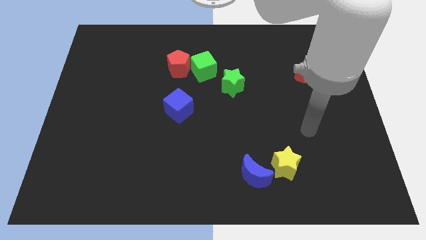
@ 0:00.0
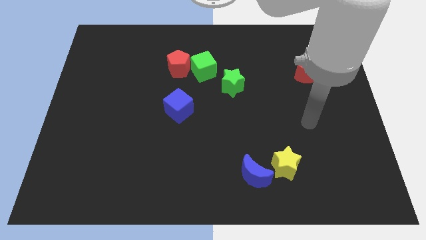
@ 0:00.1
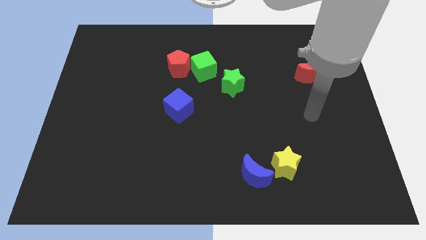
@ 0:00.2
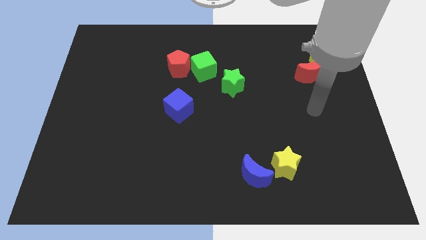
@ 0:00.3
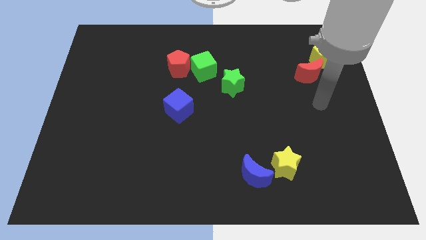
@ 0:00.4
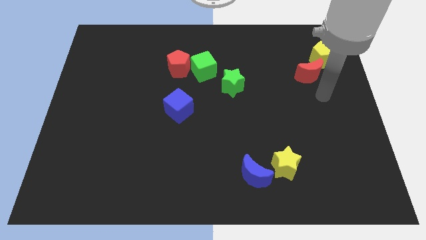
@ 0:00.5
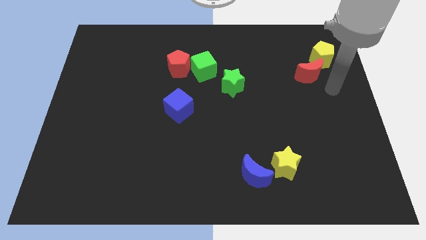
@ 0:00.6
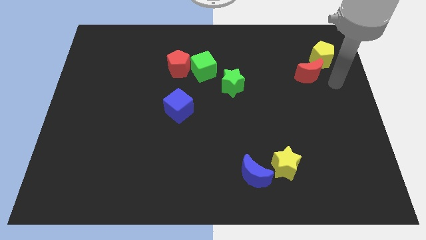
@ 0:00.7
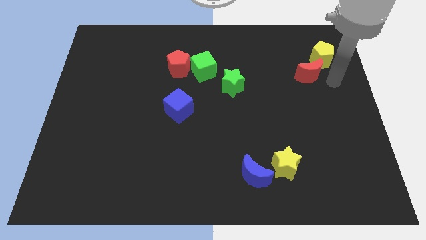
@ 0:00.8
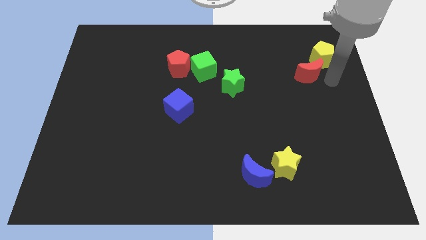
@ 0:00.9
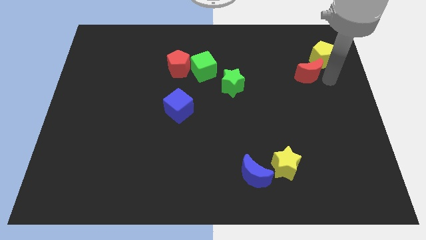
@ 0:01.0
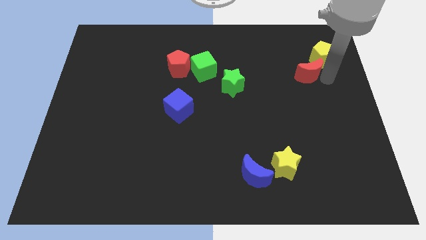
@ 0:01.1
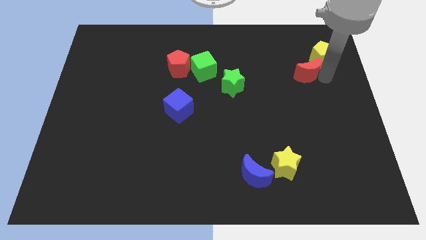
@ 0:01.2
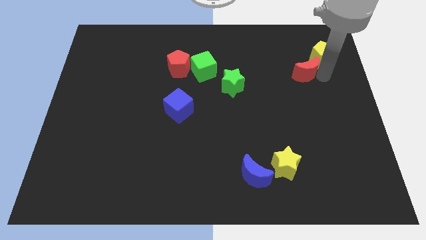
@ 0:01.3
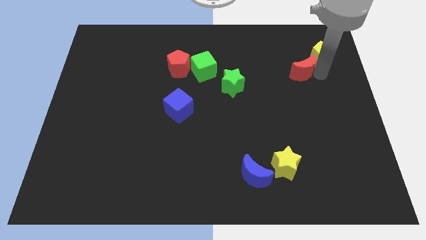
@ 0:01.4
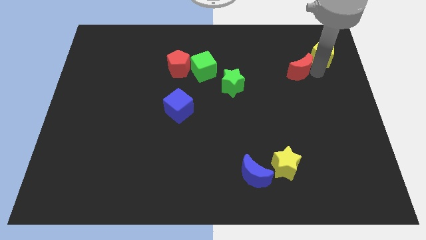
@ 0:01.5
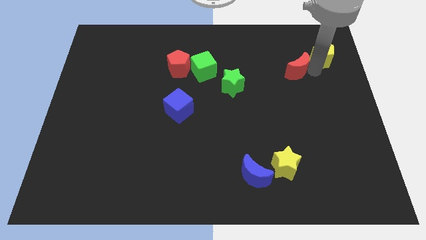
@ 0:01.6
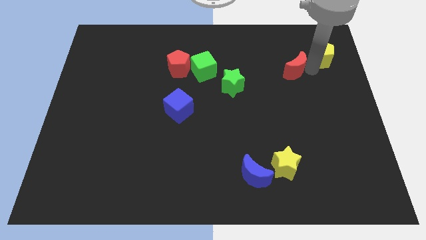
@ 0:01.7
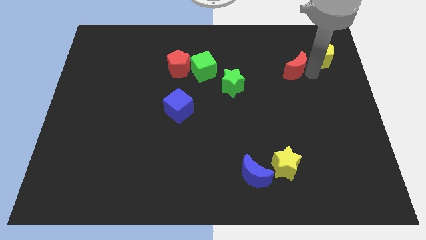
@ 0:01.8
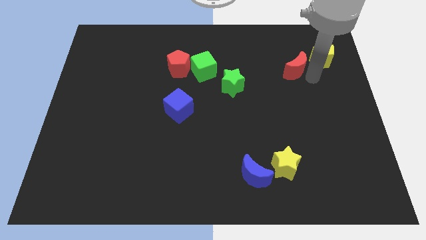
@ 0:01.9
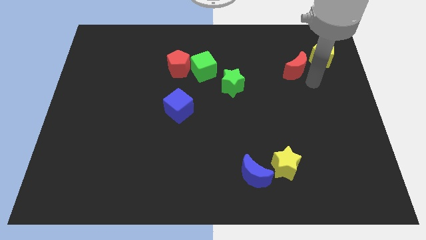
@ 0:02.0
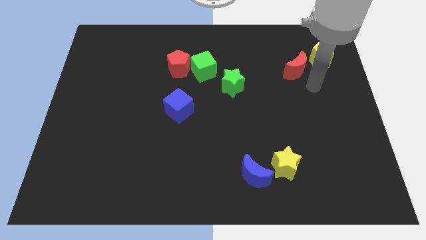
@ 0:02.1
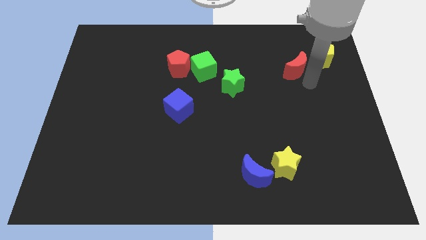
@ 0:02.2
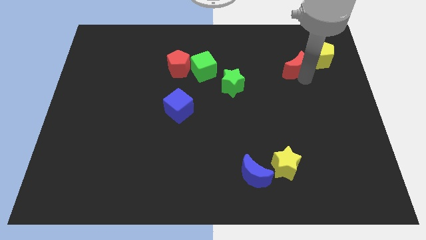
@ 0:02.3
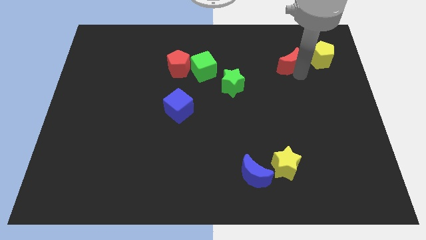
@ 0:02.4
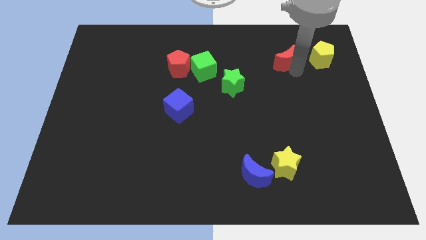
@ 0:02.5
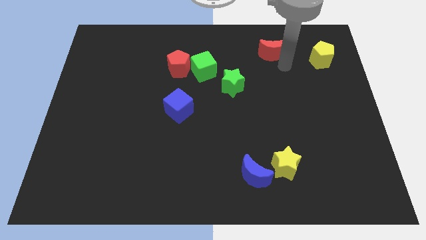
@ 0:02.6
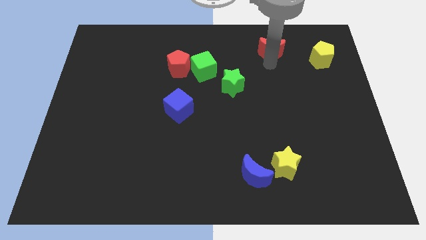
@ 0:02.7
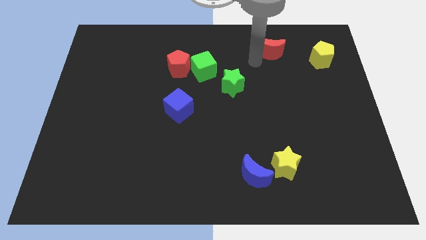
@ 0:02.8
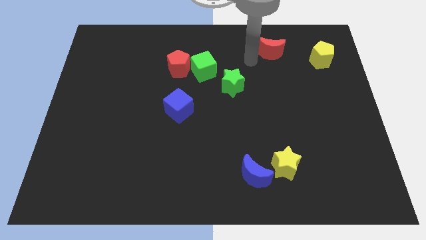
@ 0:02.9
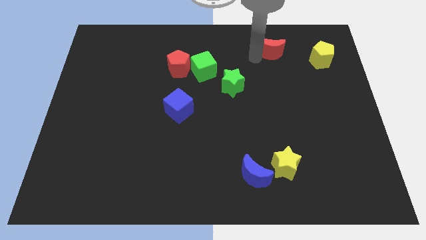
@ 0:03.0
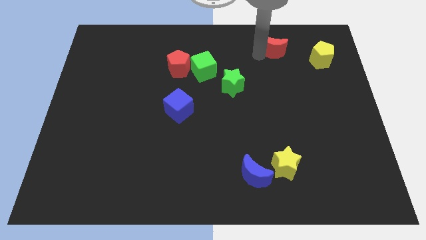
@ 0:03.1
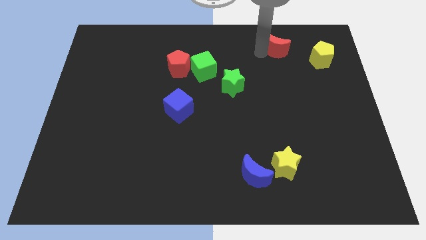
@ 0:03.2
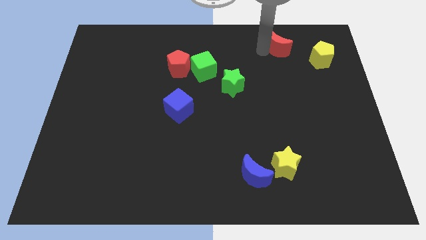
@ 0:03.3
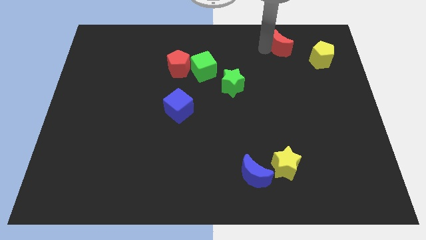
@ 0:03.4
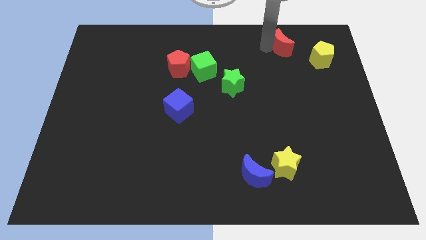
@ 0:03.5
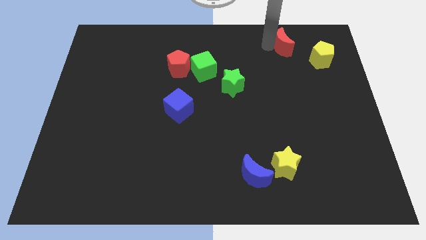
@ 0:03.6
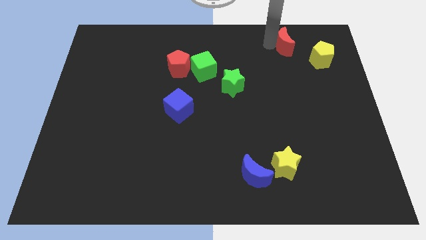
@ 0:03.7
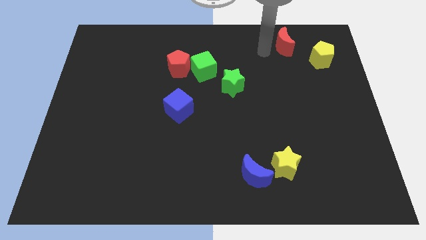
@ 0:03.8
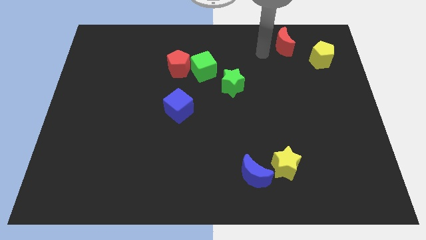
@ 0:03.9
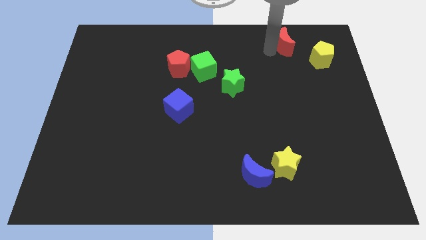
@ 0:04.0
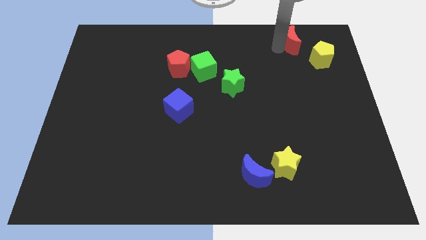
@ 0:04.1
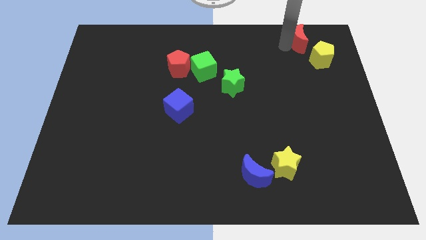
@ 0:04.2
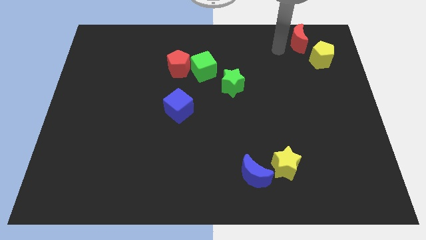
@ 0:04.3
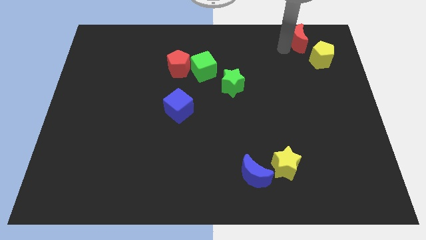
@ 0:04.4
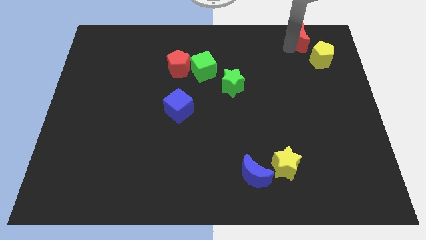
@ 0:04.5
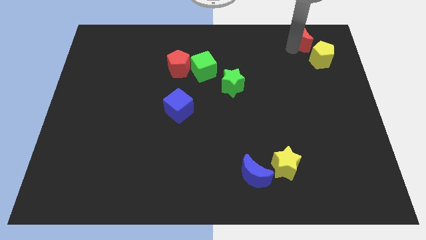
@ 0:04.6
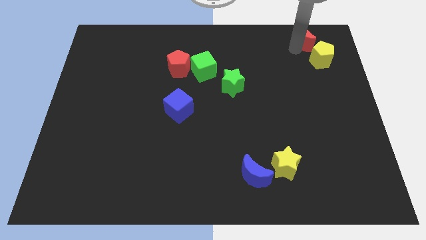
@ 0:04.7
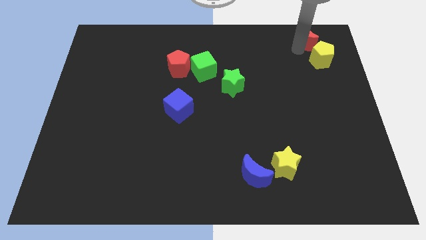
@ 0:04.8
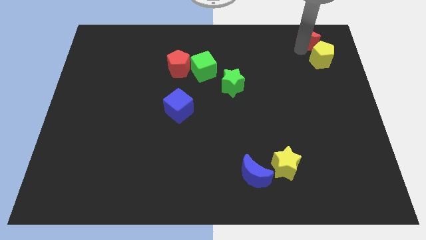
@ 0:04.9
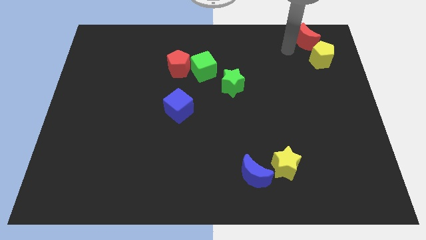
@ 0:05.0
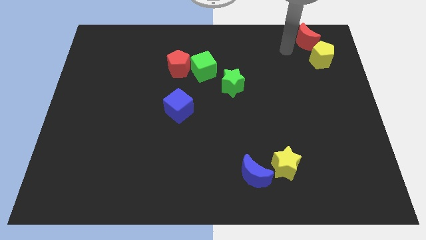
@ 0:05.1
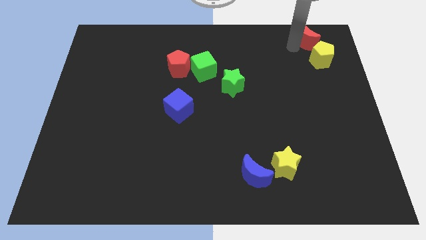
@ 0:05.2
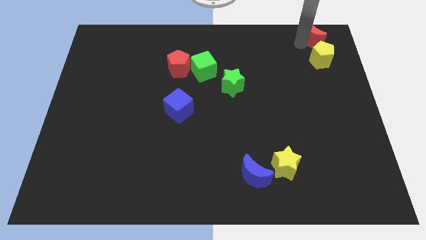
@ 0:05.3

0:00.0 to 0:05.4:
put the red moon to the top right of the board

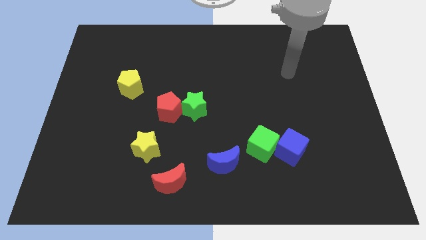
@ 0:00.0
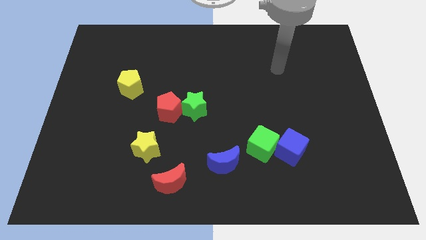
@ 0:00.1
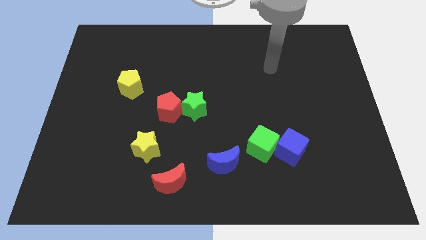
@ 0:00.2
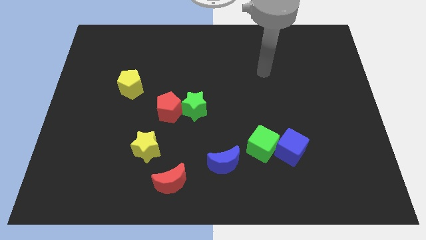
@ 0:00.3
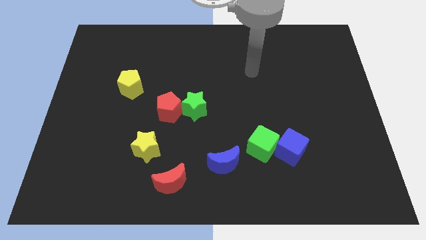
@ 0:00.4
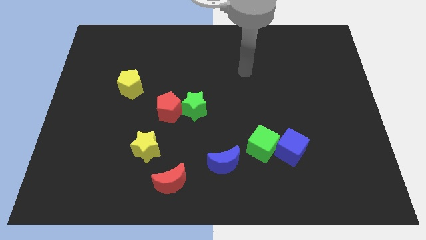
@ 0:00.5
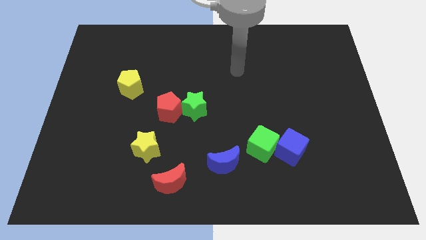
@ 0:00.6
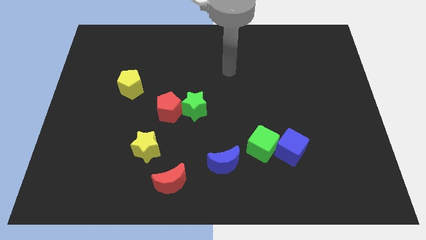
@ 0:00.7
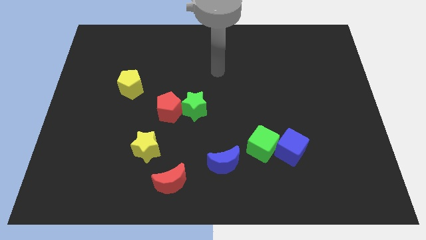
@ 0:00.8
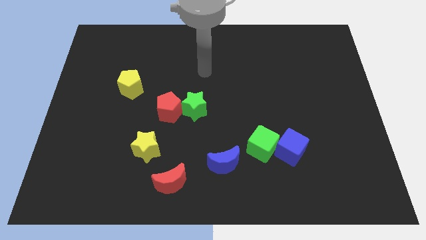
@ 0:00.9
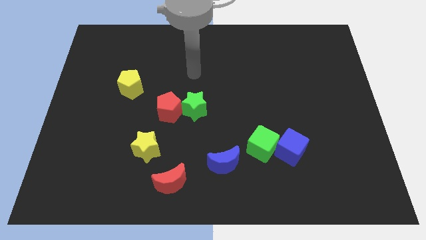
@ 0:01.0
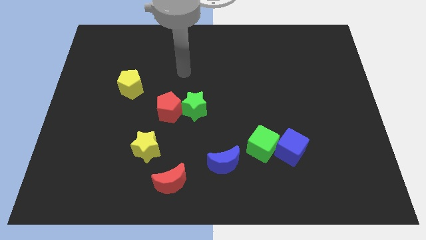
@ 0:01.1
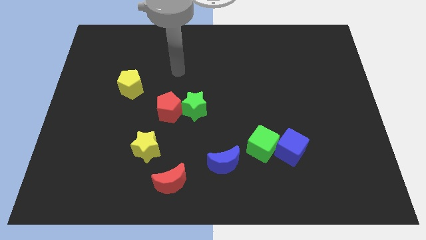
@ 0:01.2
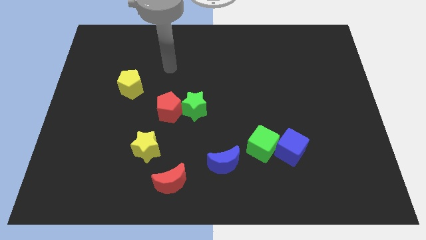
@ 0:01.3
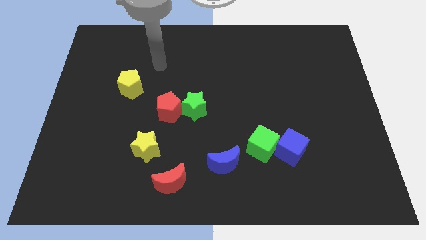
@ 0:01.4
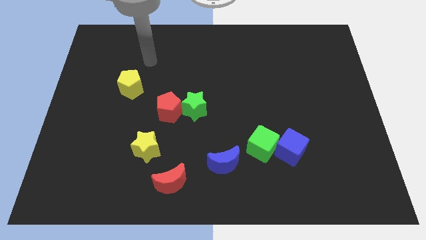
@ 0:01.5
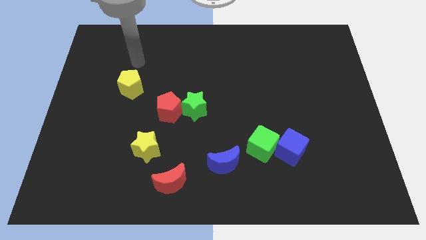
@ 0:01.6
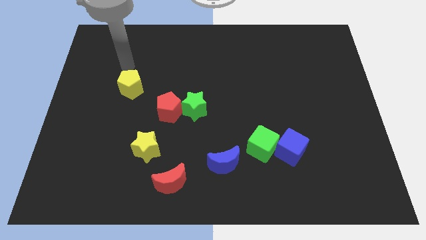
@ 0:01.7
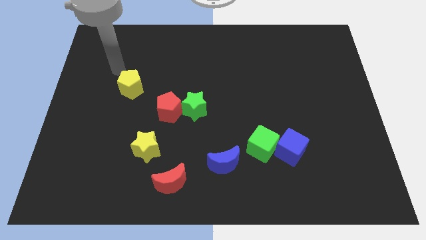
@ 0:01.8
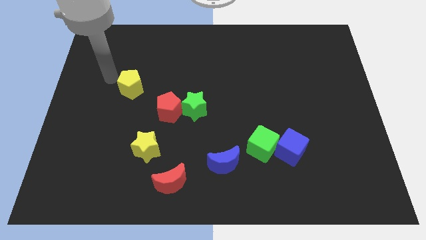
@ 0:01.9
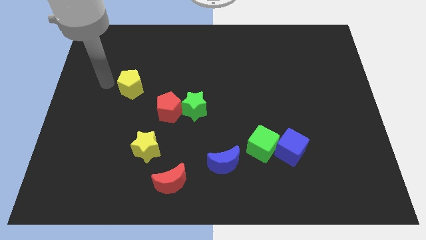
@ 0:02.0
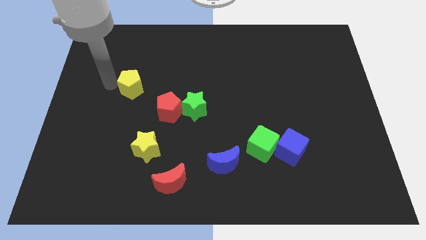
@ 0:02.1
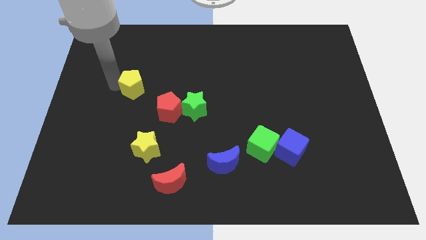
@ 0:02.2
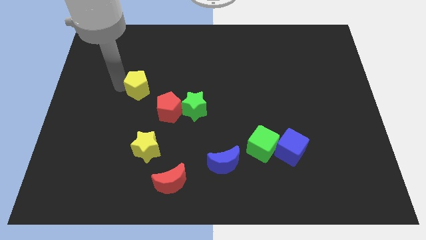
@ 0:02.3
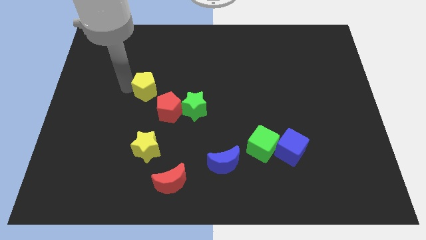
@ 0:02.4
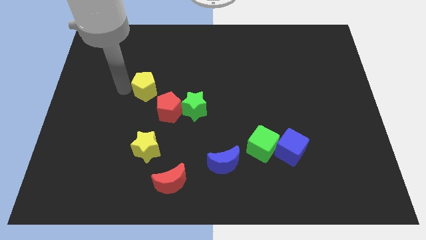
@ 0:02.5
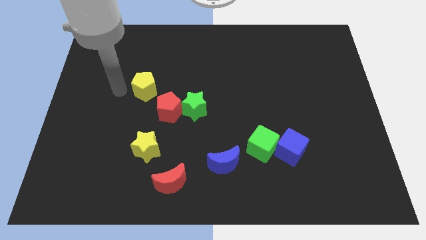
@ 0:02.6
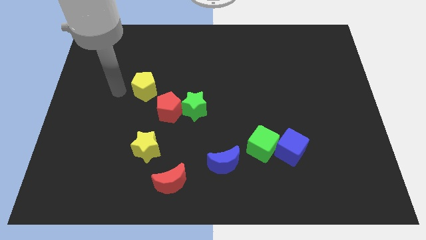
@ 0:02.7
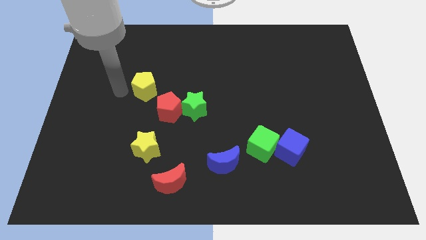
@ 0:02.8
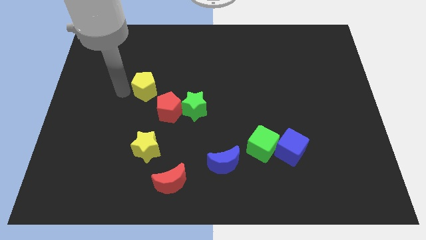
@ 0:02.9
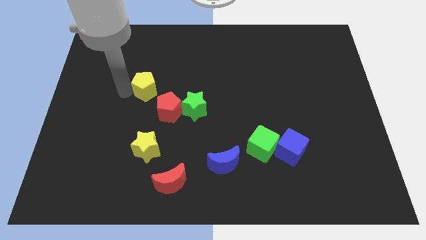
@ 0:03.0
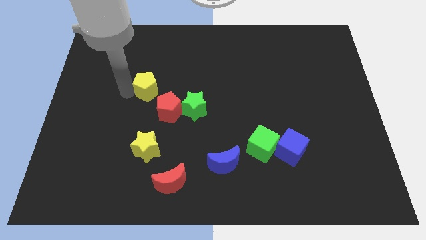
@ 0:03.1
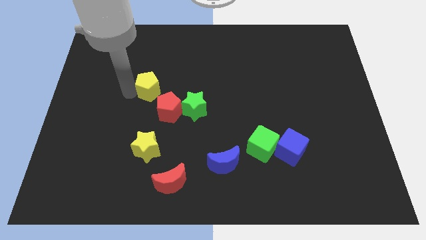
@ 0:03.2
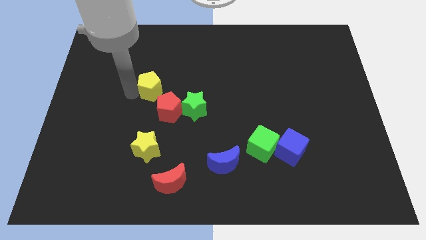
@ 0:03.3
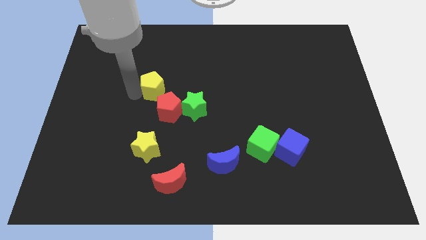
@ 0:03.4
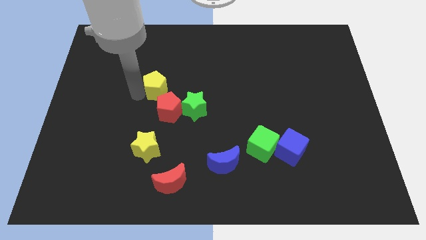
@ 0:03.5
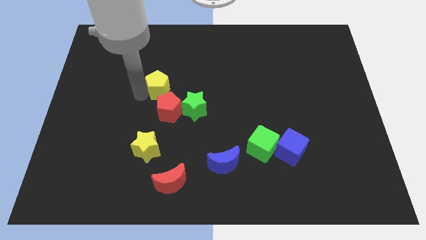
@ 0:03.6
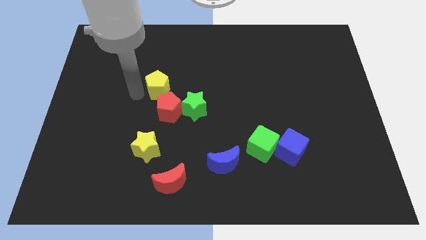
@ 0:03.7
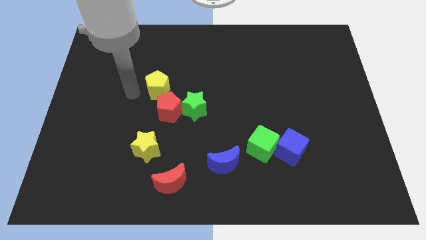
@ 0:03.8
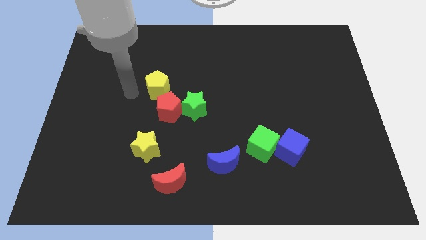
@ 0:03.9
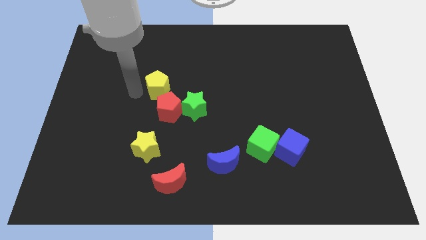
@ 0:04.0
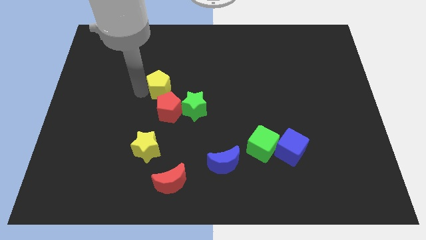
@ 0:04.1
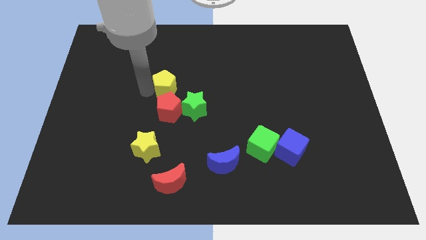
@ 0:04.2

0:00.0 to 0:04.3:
slide the yellow pentagon to the center of the board
